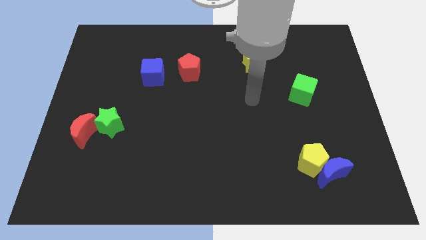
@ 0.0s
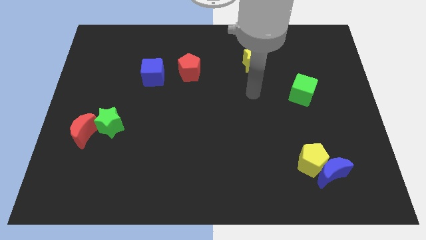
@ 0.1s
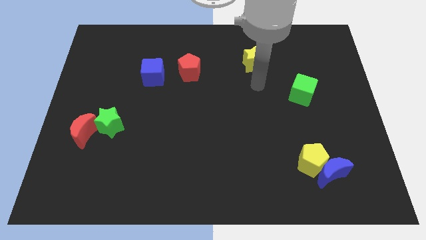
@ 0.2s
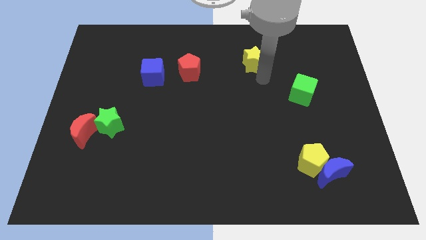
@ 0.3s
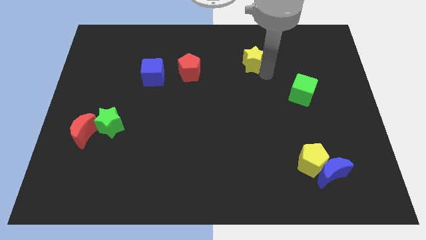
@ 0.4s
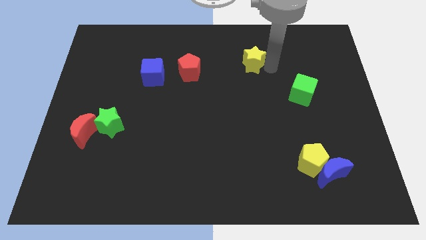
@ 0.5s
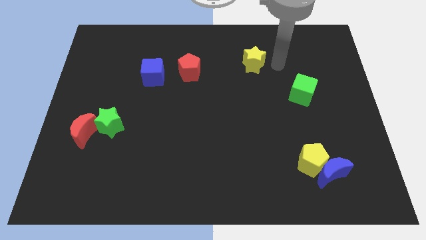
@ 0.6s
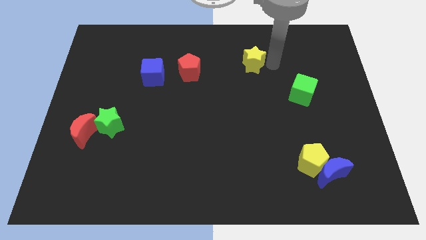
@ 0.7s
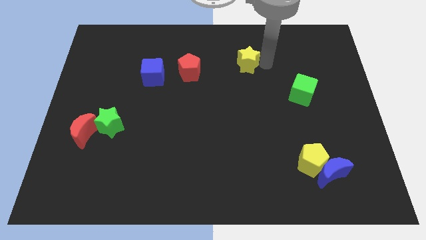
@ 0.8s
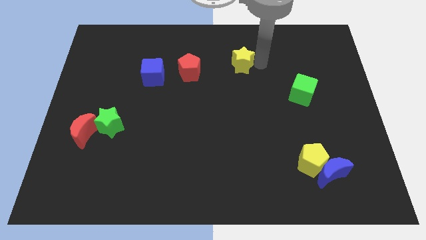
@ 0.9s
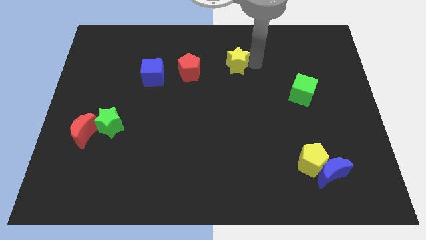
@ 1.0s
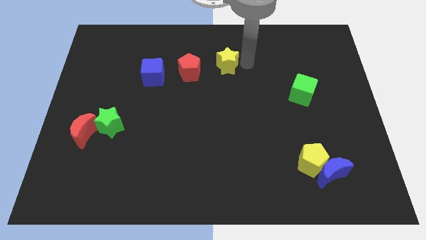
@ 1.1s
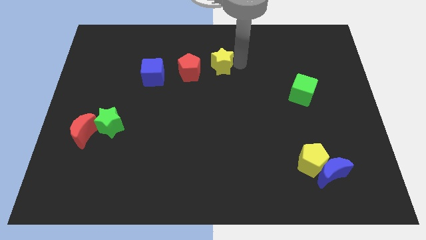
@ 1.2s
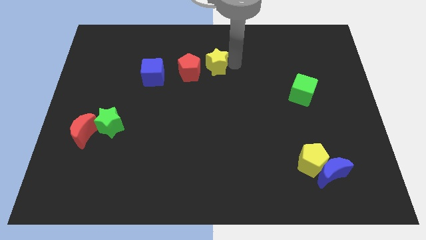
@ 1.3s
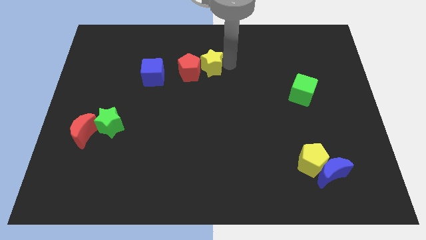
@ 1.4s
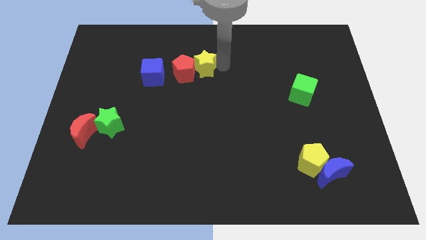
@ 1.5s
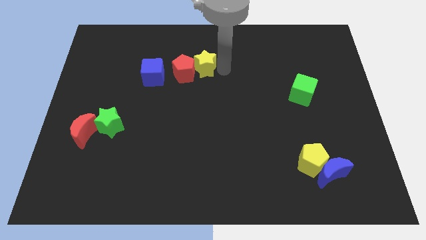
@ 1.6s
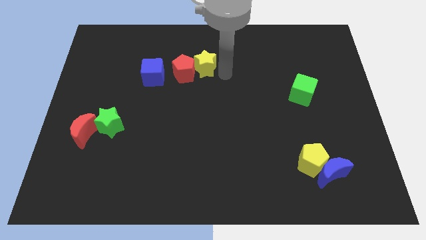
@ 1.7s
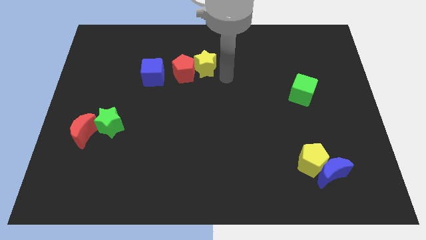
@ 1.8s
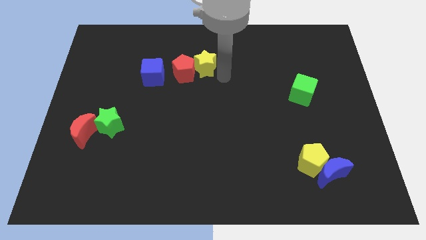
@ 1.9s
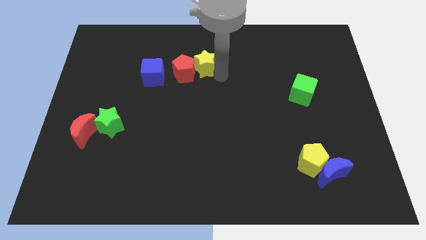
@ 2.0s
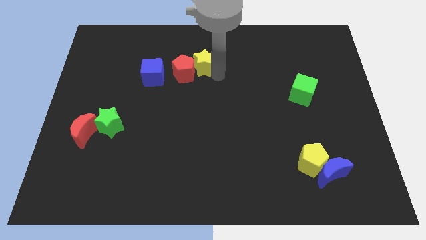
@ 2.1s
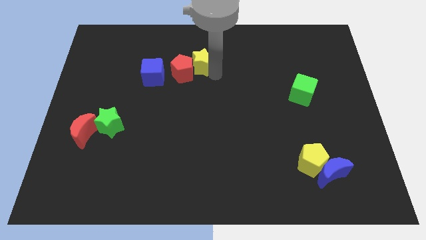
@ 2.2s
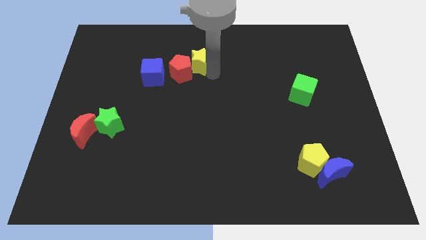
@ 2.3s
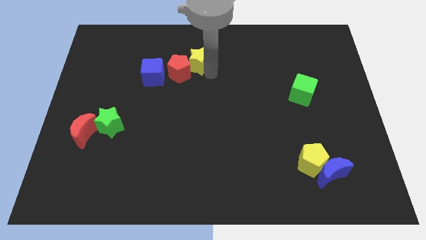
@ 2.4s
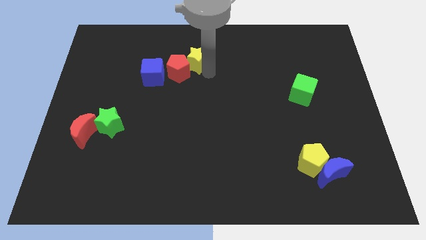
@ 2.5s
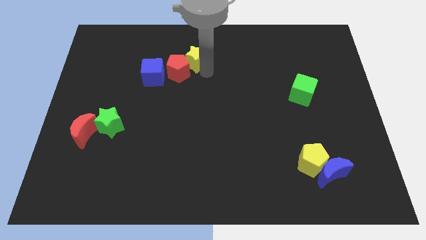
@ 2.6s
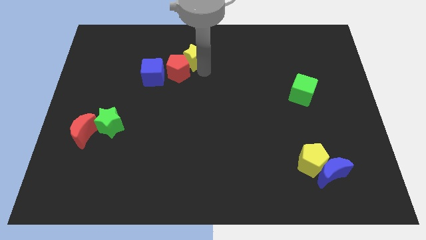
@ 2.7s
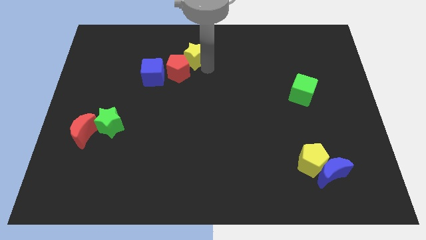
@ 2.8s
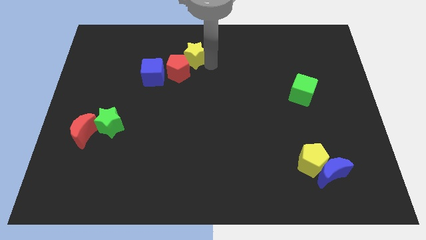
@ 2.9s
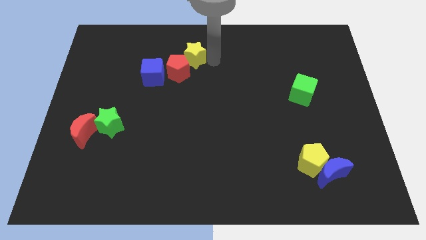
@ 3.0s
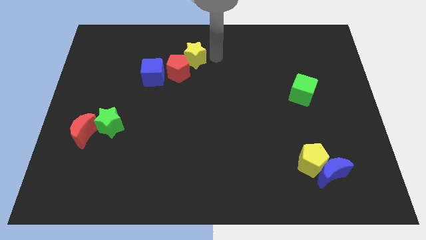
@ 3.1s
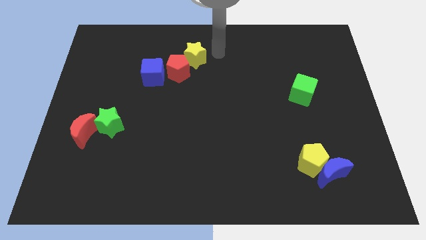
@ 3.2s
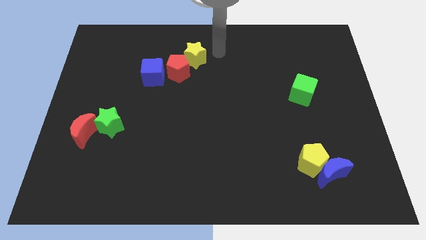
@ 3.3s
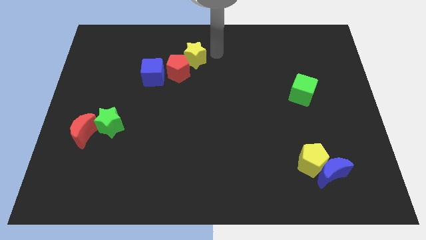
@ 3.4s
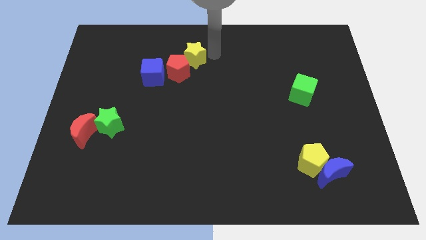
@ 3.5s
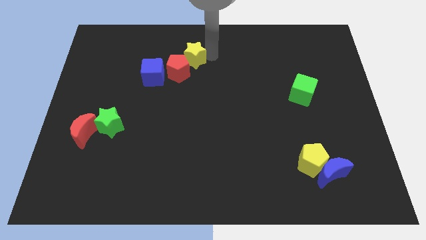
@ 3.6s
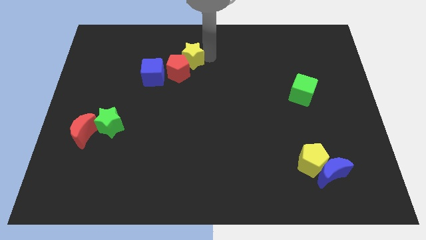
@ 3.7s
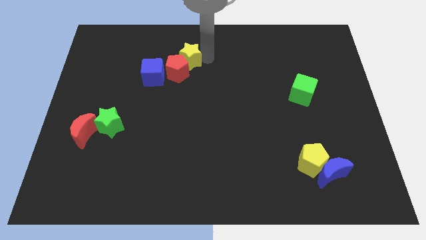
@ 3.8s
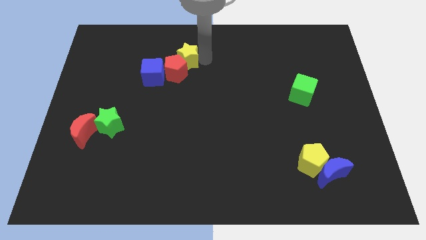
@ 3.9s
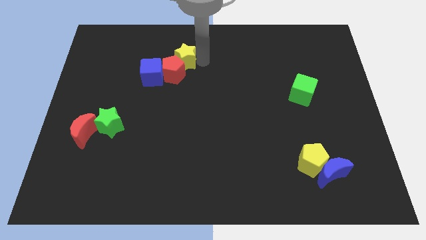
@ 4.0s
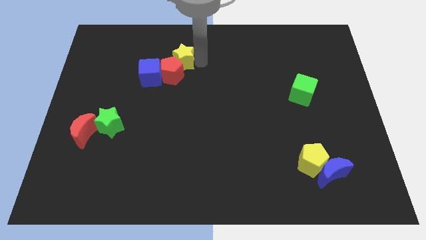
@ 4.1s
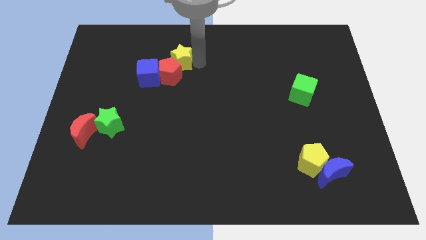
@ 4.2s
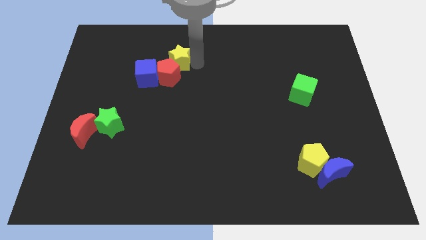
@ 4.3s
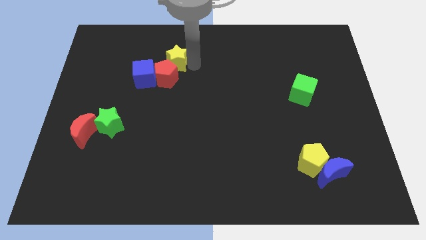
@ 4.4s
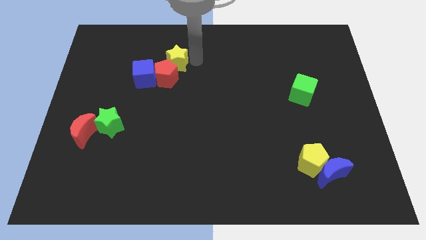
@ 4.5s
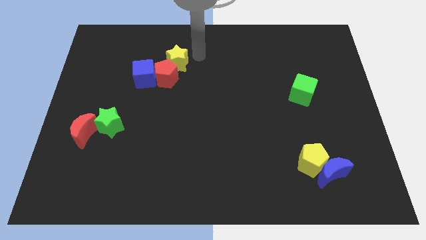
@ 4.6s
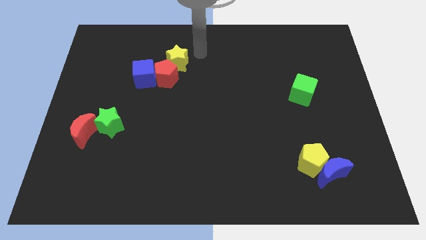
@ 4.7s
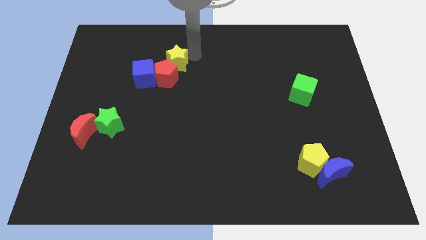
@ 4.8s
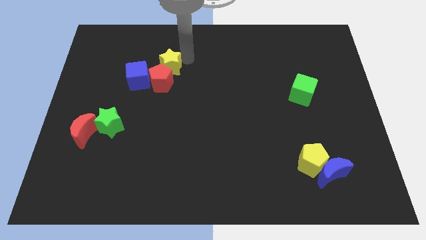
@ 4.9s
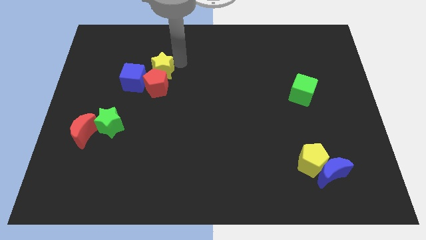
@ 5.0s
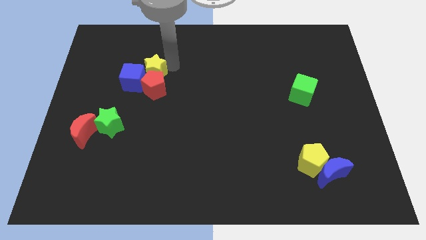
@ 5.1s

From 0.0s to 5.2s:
move the yellow star next to the blue cube

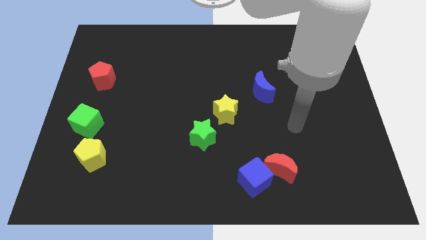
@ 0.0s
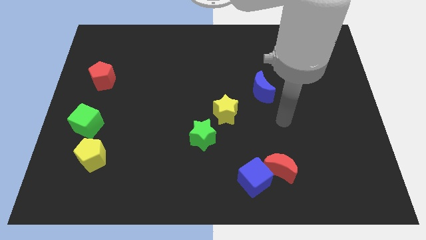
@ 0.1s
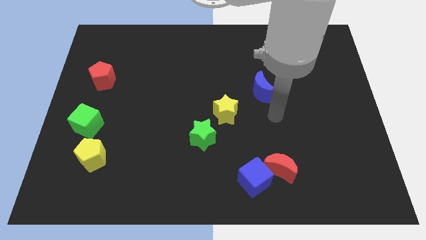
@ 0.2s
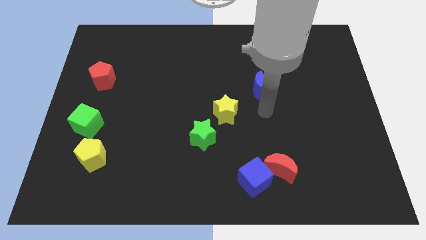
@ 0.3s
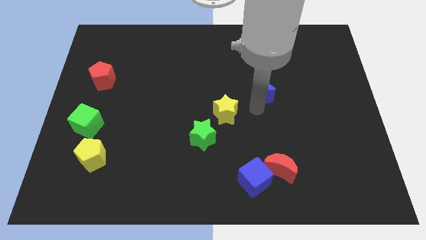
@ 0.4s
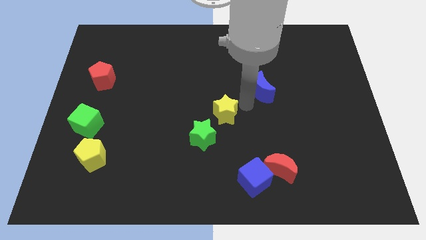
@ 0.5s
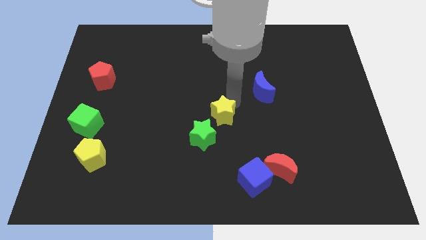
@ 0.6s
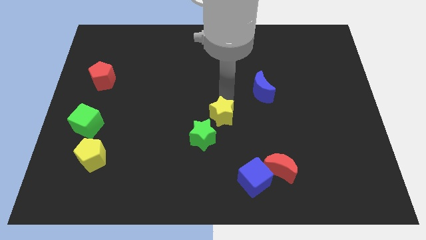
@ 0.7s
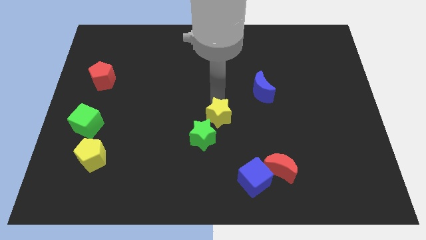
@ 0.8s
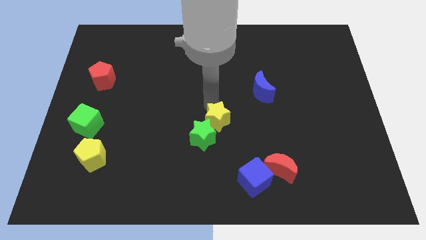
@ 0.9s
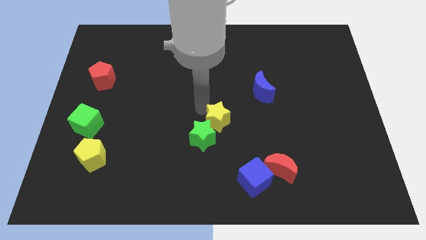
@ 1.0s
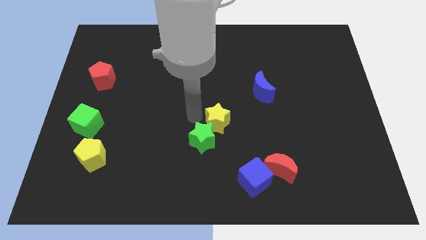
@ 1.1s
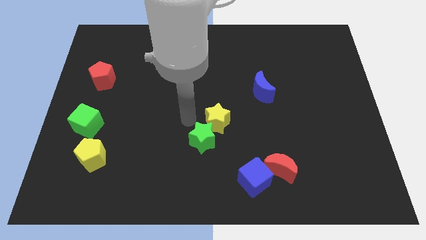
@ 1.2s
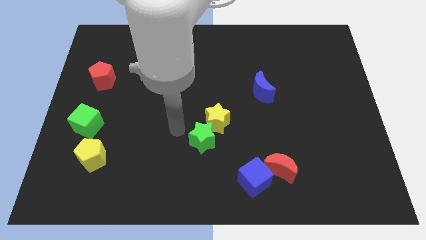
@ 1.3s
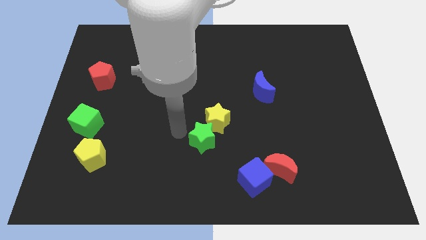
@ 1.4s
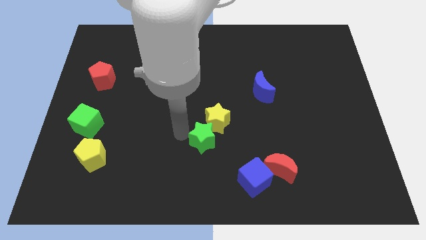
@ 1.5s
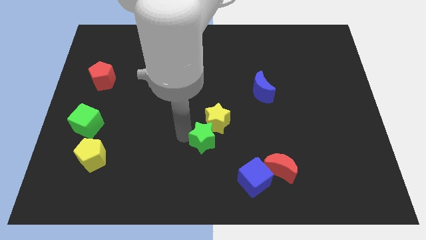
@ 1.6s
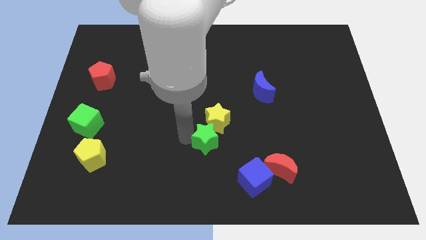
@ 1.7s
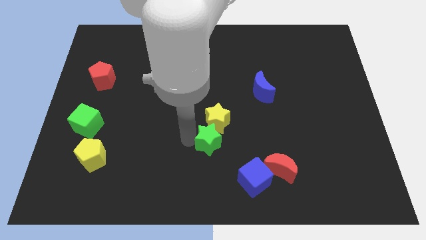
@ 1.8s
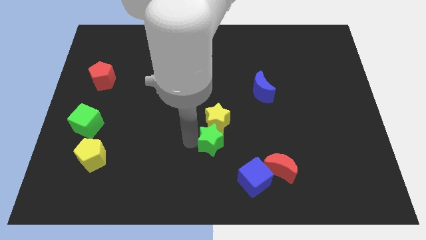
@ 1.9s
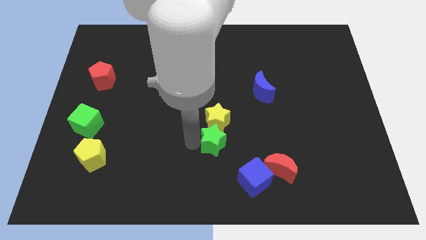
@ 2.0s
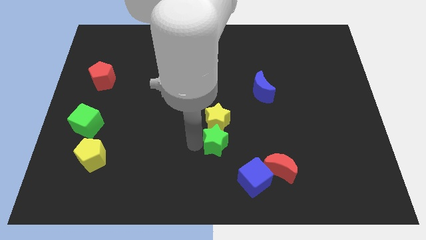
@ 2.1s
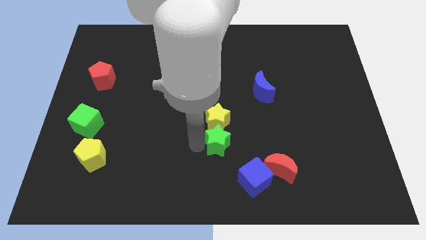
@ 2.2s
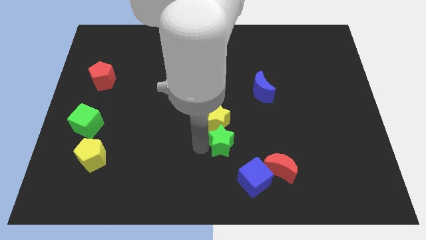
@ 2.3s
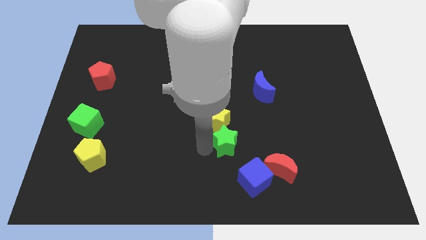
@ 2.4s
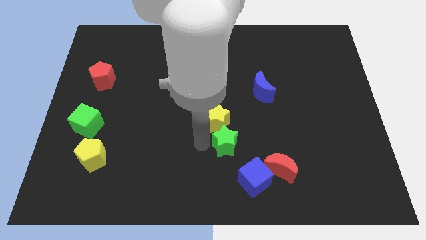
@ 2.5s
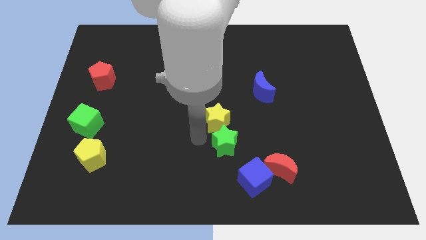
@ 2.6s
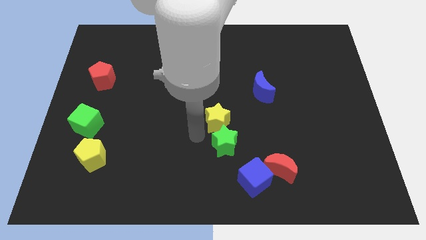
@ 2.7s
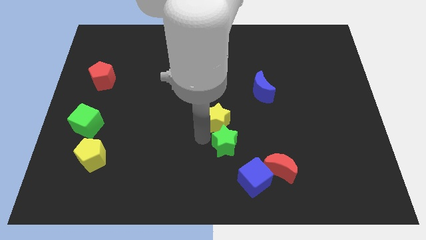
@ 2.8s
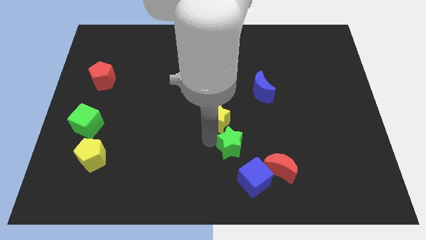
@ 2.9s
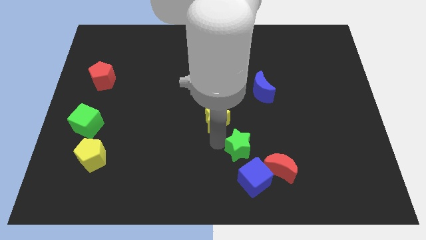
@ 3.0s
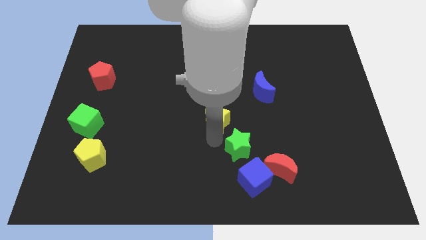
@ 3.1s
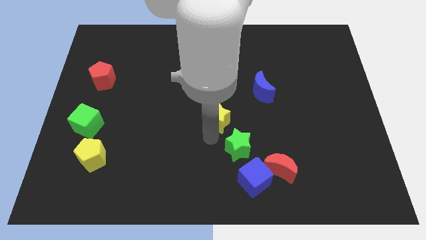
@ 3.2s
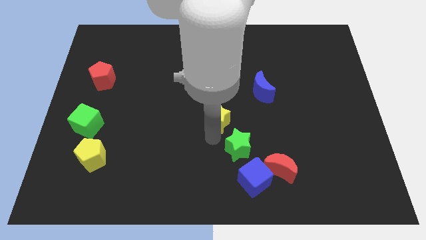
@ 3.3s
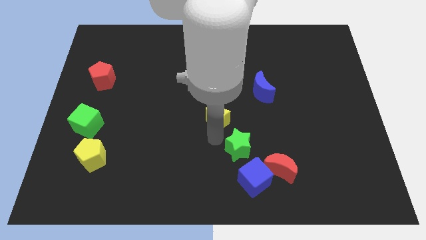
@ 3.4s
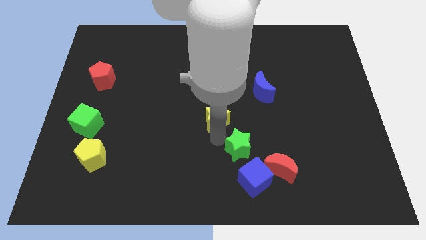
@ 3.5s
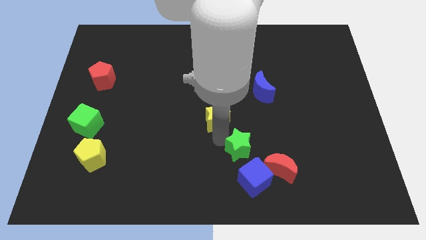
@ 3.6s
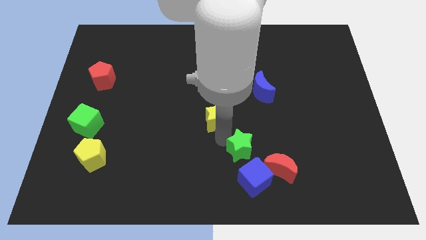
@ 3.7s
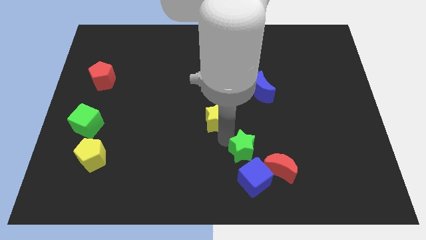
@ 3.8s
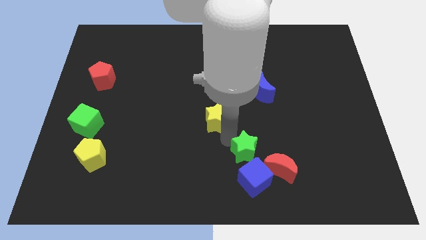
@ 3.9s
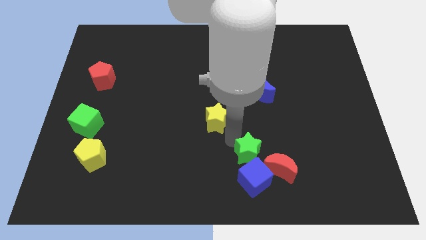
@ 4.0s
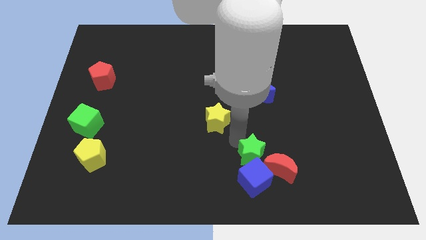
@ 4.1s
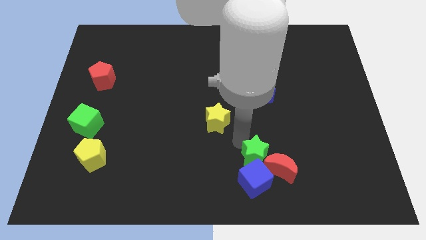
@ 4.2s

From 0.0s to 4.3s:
put the green star to the red moon
